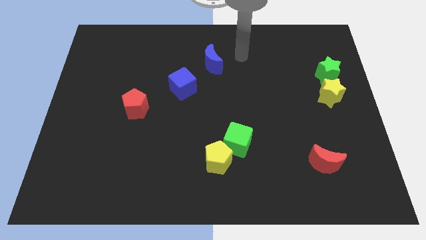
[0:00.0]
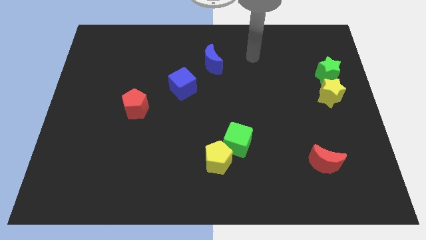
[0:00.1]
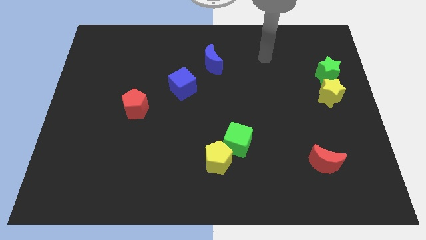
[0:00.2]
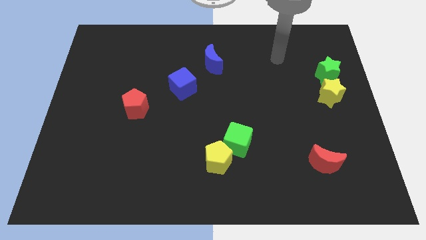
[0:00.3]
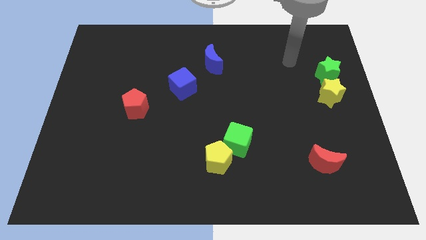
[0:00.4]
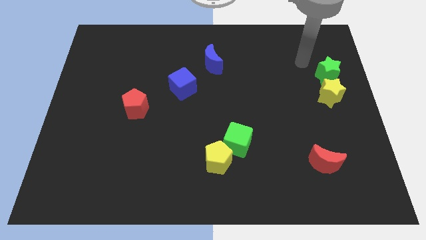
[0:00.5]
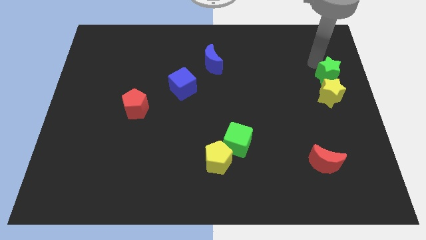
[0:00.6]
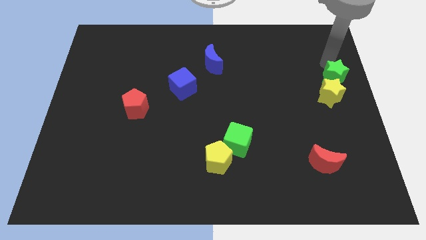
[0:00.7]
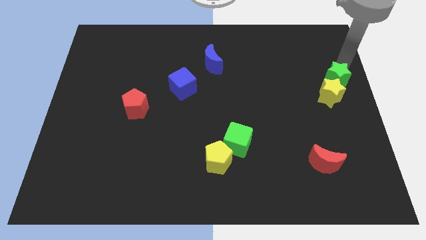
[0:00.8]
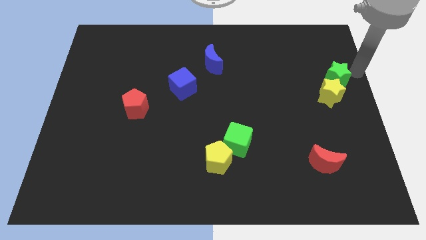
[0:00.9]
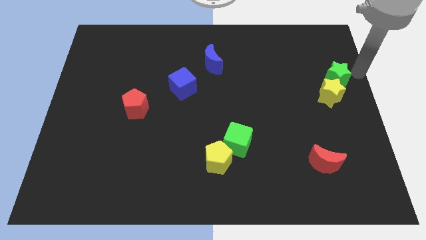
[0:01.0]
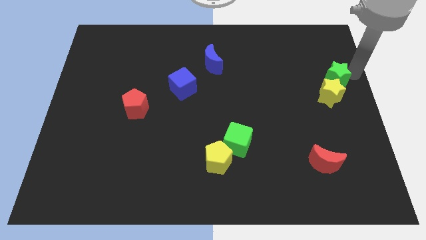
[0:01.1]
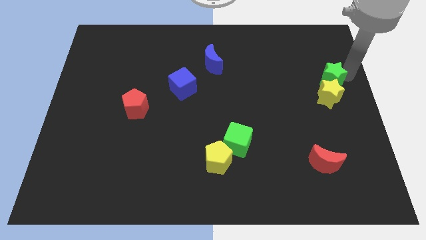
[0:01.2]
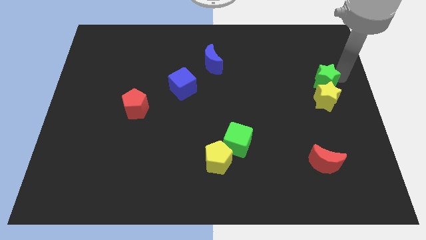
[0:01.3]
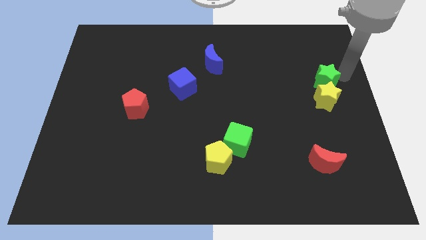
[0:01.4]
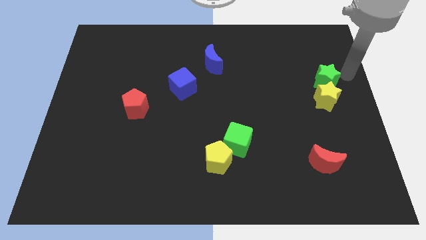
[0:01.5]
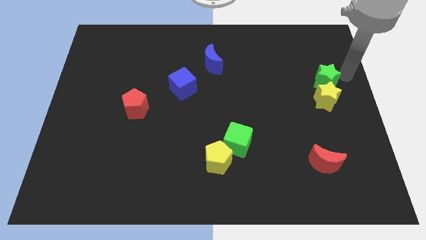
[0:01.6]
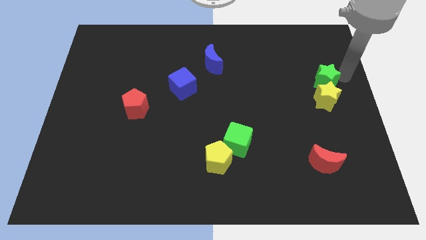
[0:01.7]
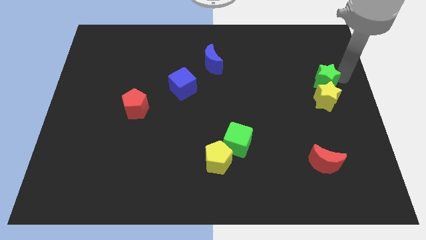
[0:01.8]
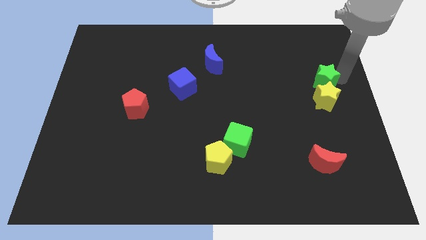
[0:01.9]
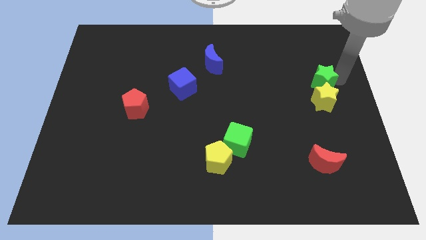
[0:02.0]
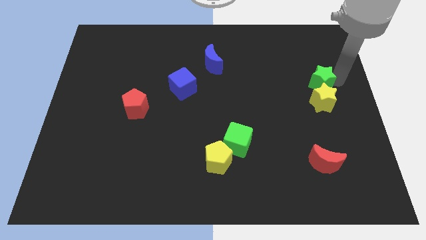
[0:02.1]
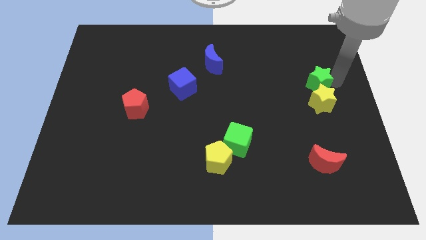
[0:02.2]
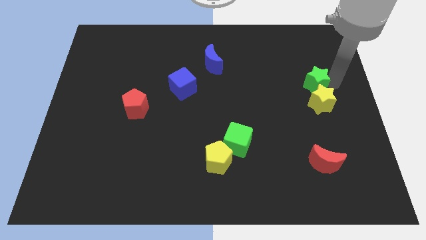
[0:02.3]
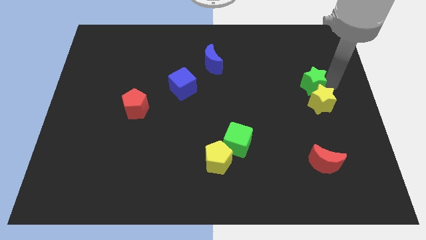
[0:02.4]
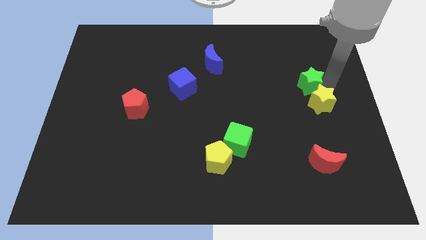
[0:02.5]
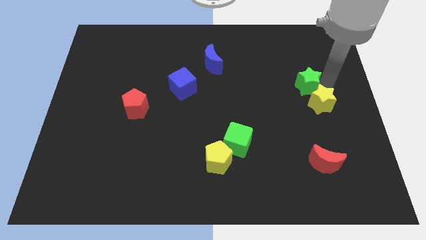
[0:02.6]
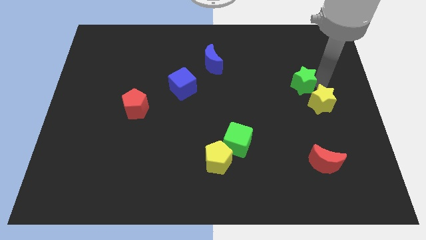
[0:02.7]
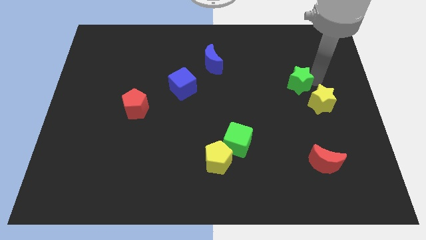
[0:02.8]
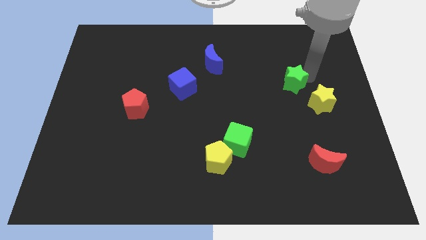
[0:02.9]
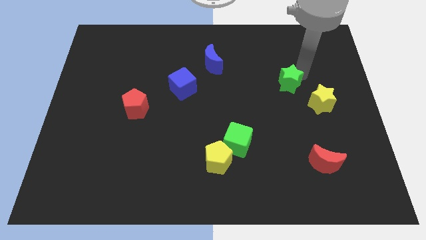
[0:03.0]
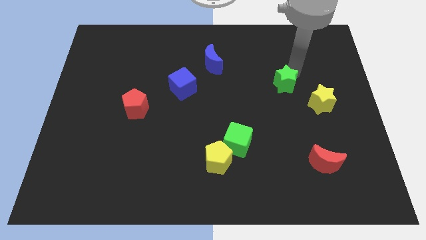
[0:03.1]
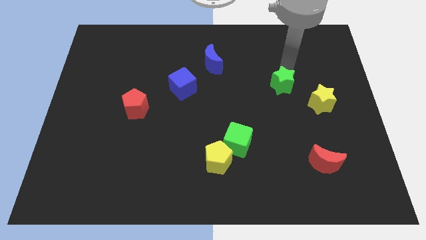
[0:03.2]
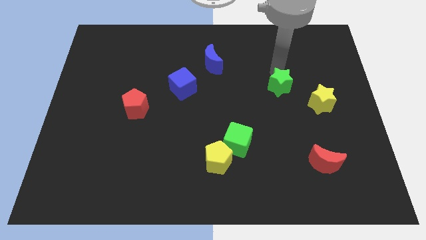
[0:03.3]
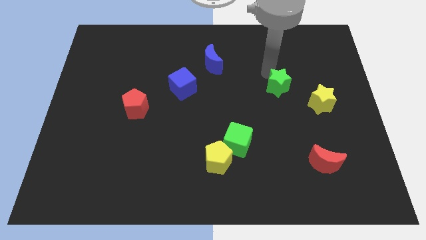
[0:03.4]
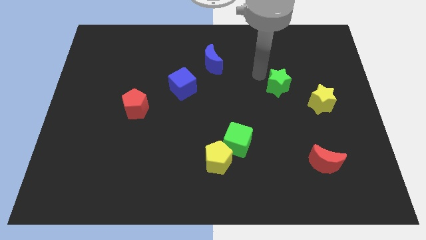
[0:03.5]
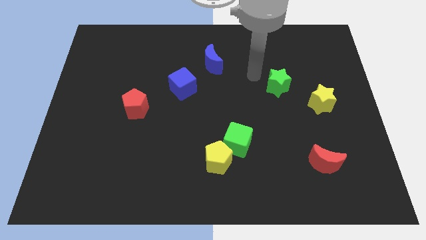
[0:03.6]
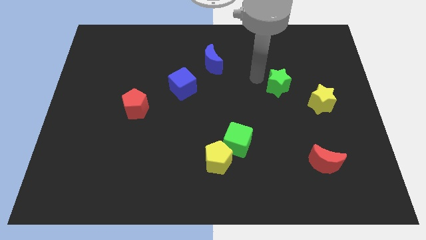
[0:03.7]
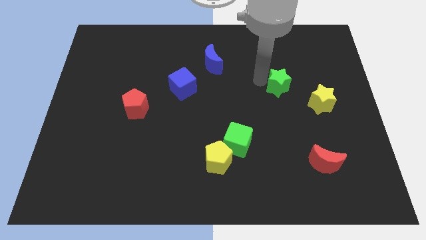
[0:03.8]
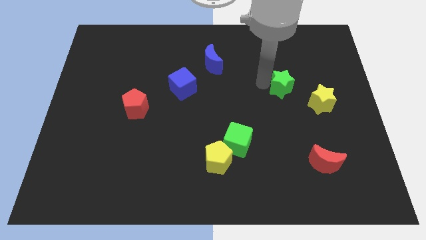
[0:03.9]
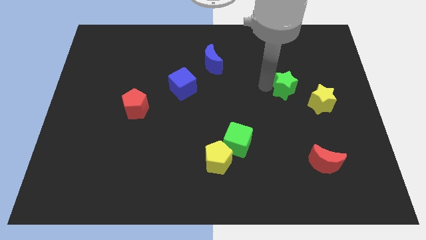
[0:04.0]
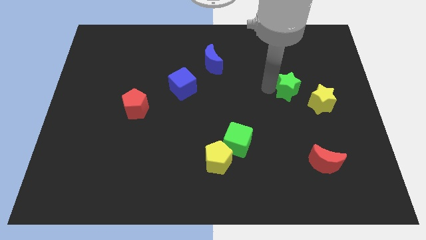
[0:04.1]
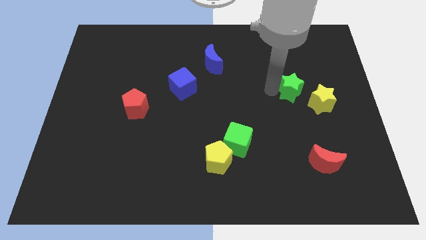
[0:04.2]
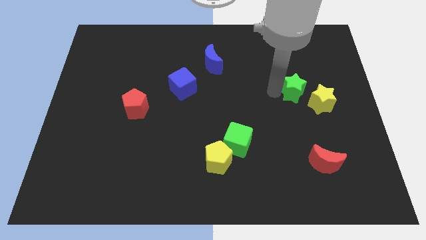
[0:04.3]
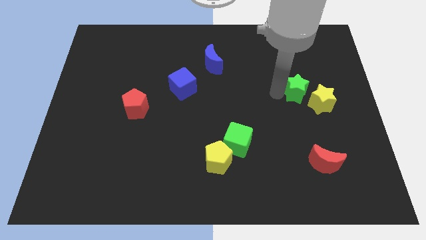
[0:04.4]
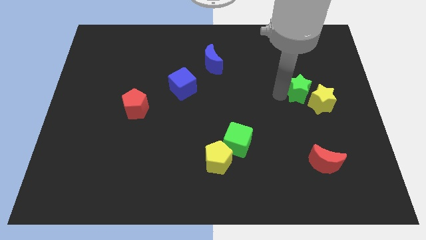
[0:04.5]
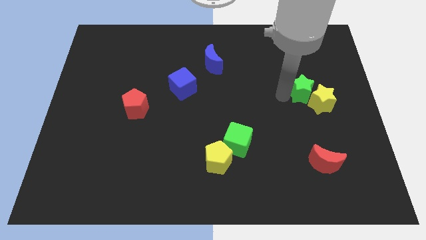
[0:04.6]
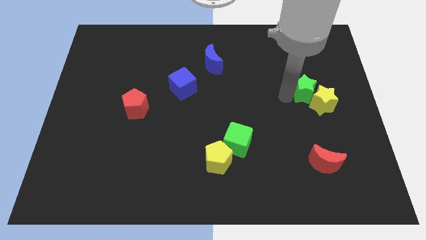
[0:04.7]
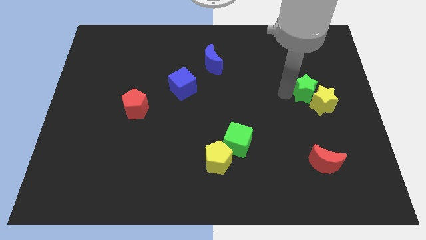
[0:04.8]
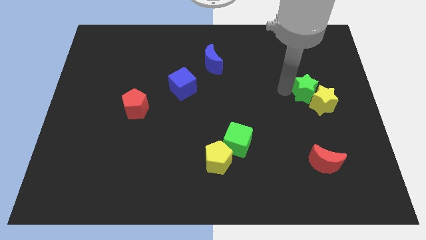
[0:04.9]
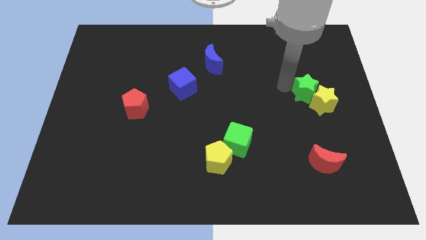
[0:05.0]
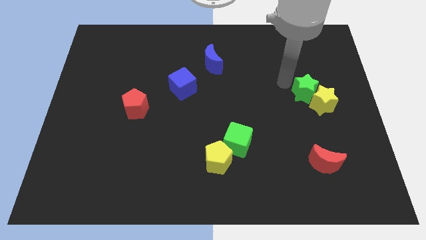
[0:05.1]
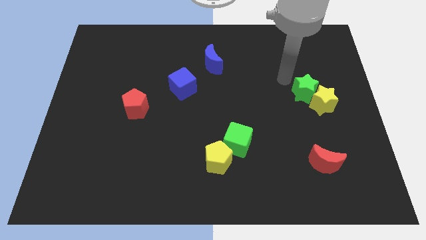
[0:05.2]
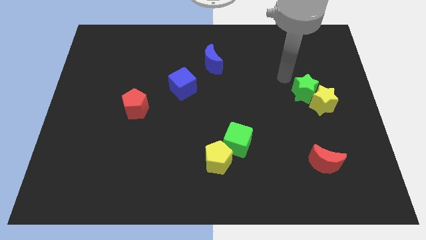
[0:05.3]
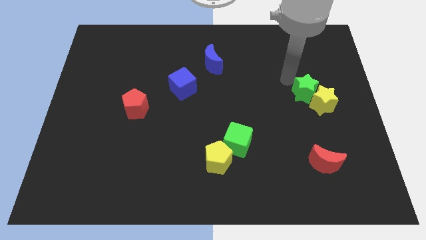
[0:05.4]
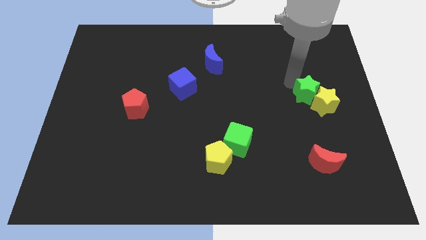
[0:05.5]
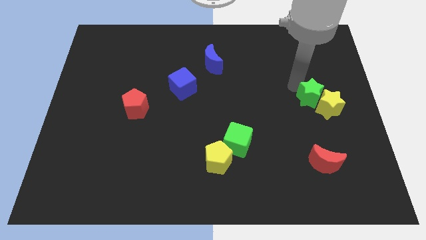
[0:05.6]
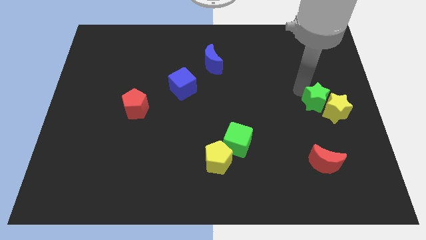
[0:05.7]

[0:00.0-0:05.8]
move the green star a little bit downwards

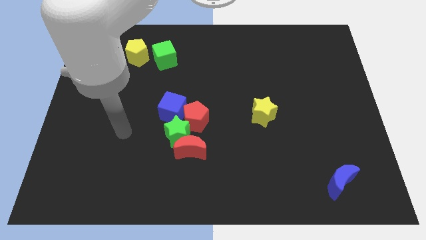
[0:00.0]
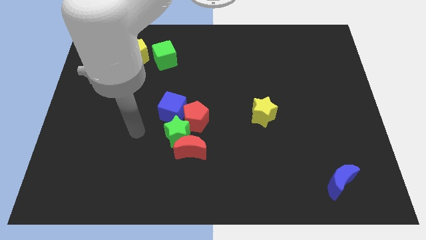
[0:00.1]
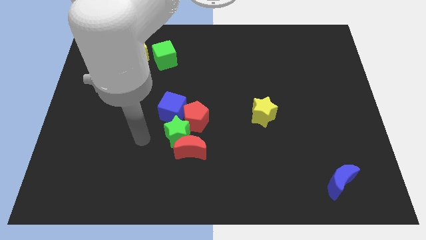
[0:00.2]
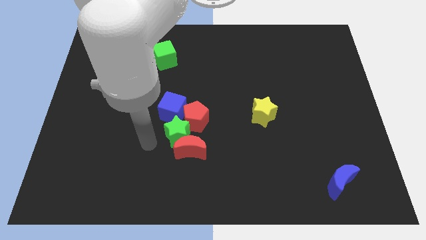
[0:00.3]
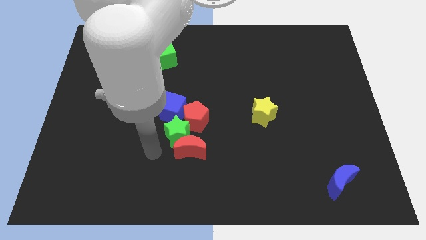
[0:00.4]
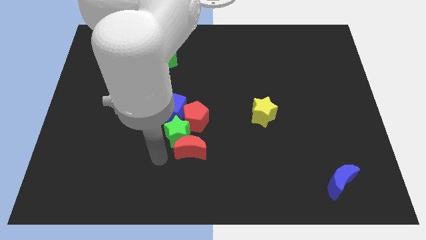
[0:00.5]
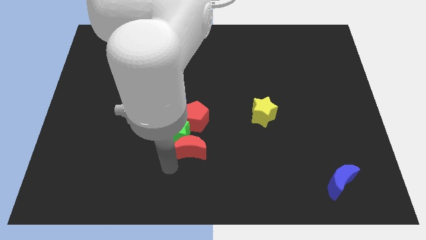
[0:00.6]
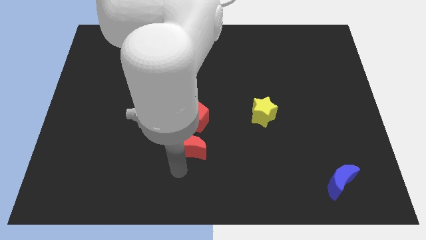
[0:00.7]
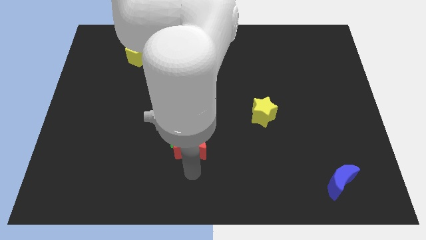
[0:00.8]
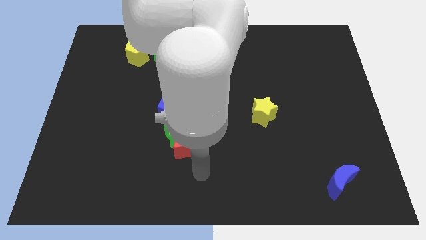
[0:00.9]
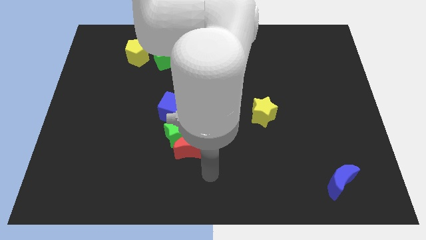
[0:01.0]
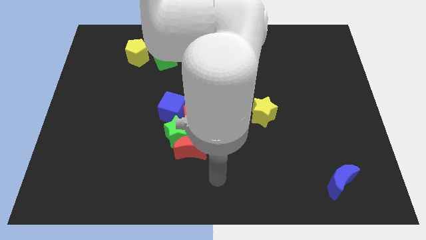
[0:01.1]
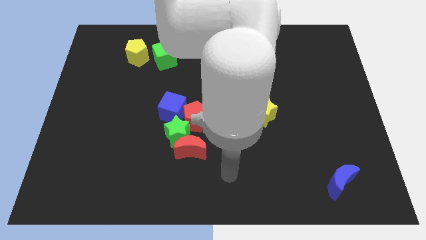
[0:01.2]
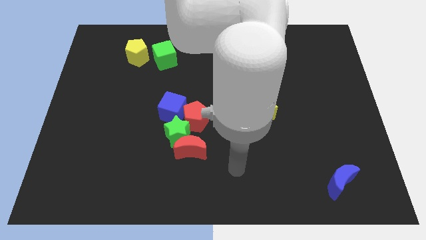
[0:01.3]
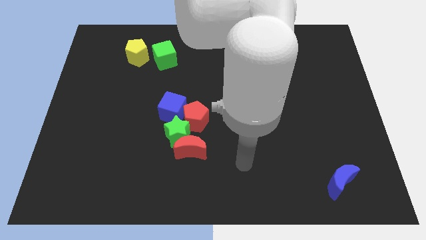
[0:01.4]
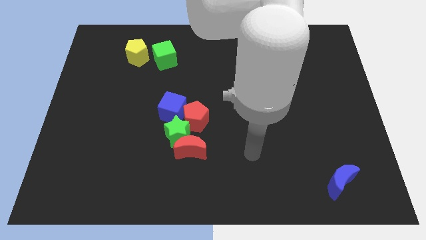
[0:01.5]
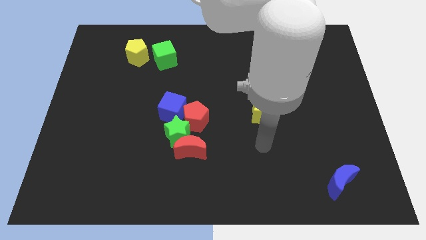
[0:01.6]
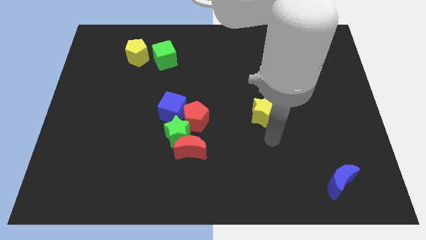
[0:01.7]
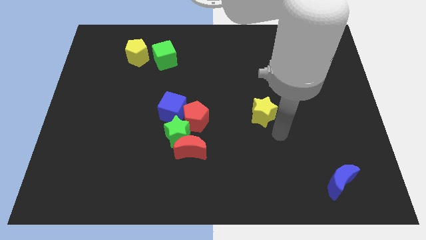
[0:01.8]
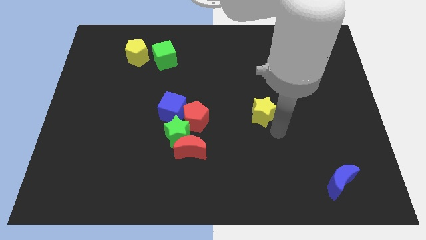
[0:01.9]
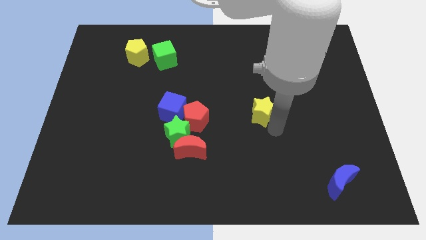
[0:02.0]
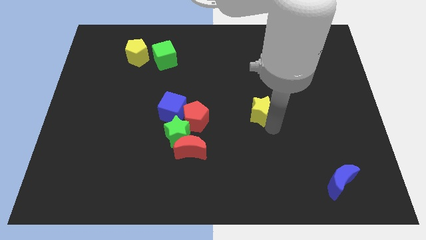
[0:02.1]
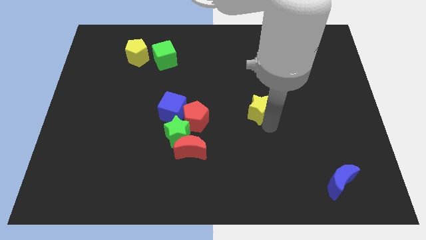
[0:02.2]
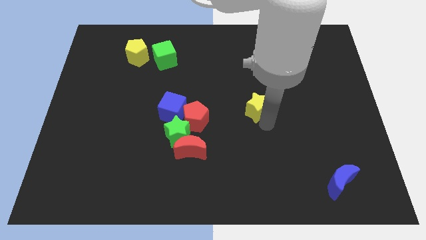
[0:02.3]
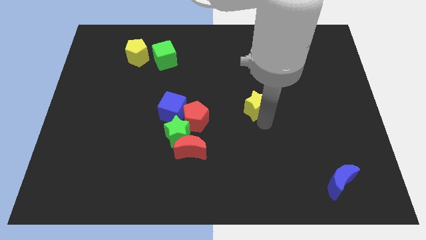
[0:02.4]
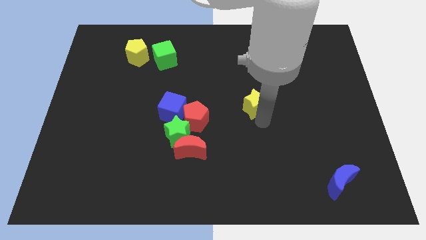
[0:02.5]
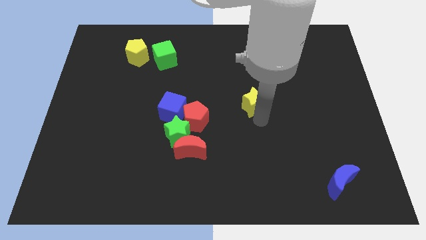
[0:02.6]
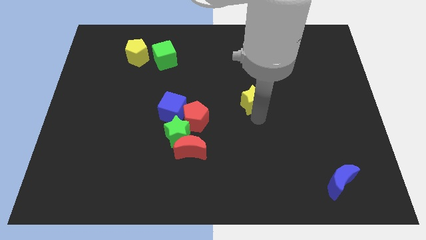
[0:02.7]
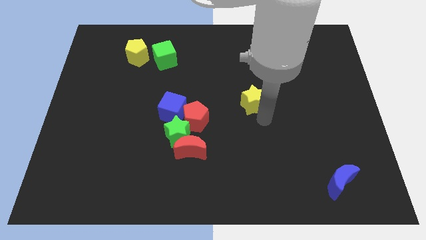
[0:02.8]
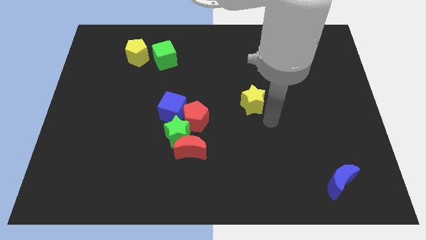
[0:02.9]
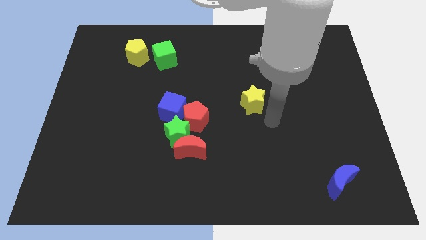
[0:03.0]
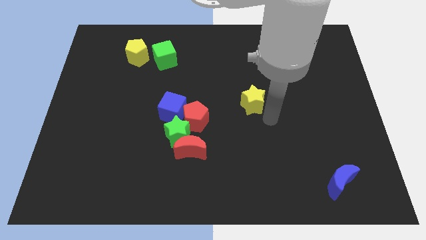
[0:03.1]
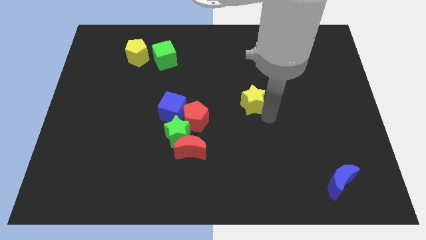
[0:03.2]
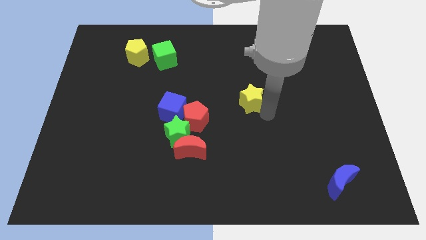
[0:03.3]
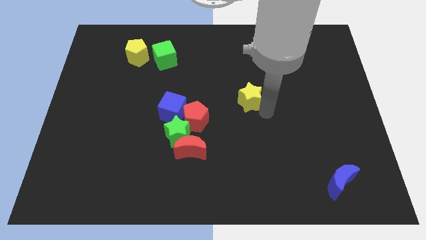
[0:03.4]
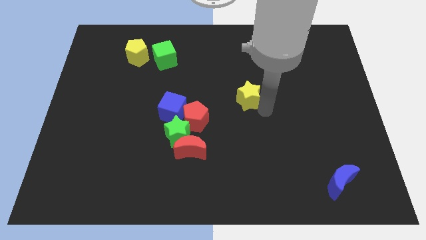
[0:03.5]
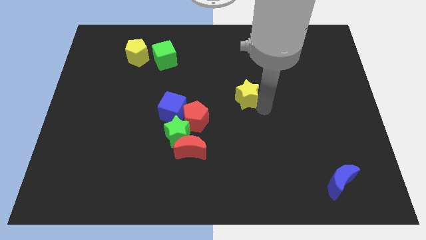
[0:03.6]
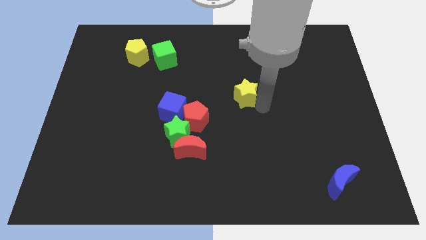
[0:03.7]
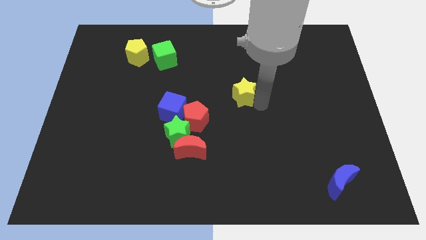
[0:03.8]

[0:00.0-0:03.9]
push the yellow star a bit diagonally up and to the left
